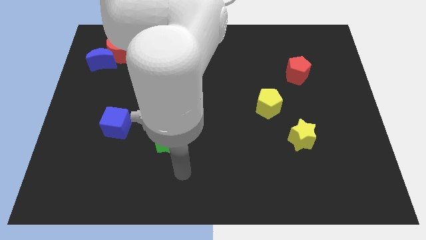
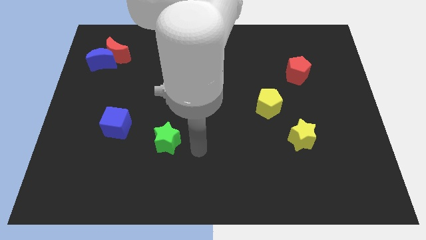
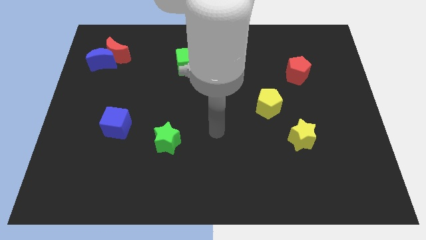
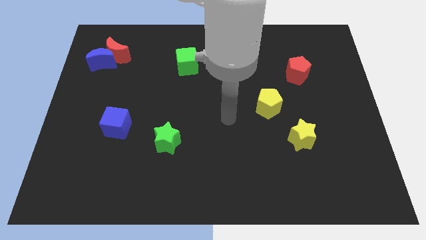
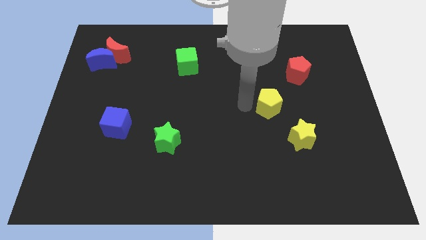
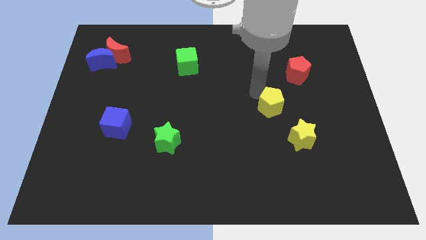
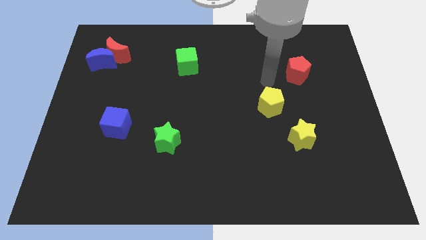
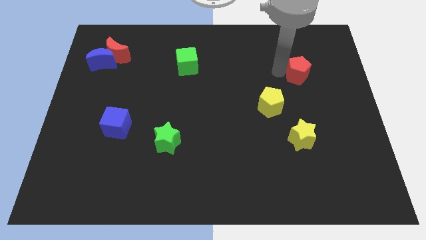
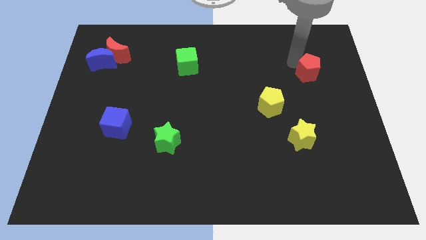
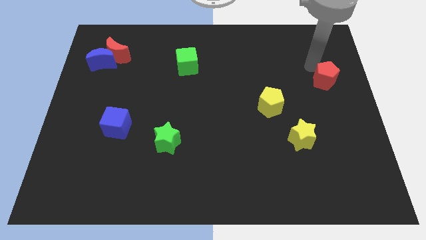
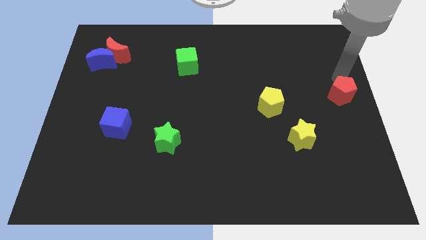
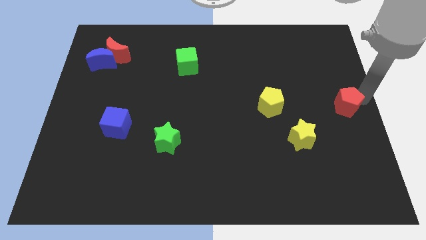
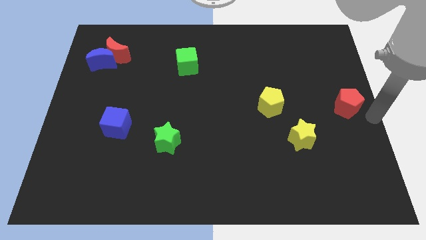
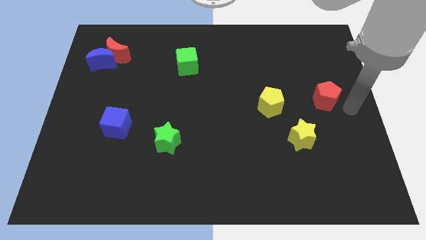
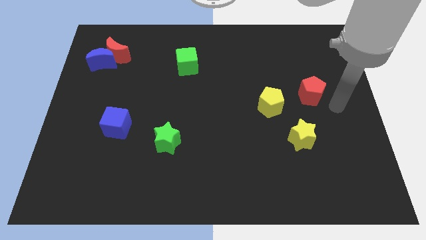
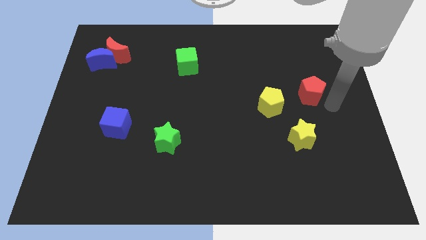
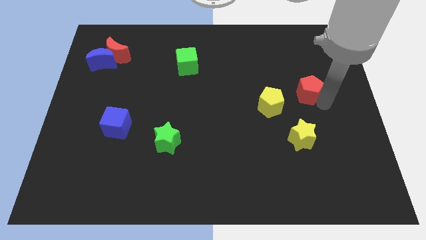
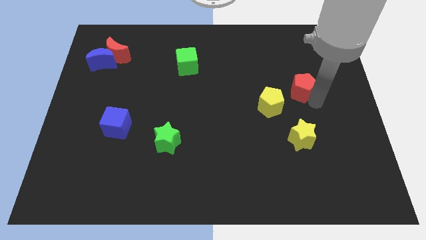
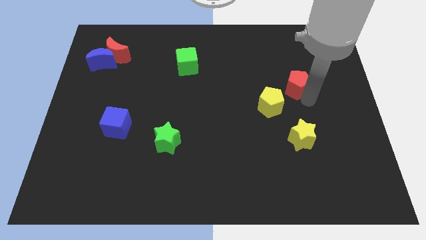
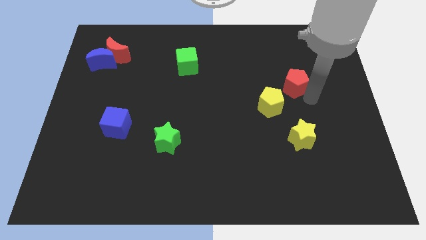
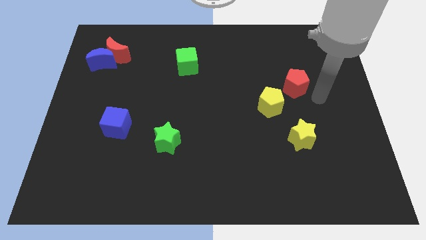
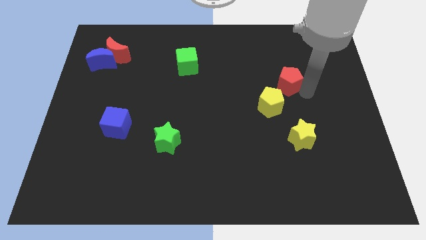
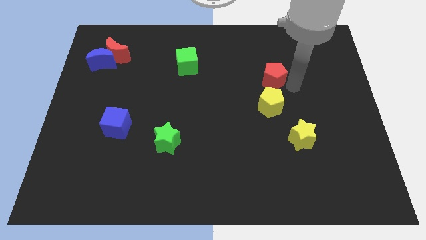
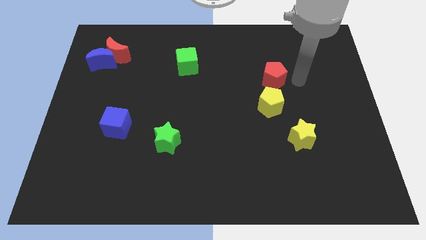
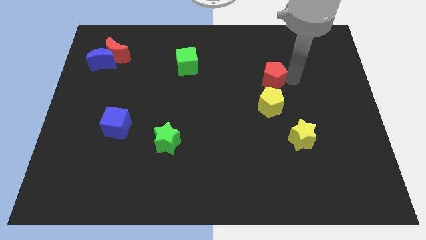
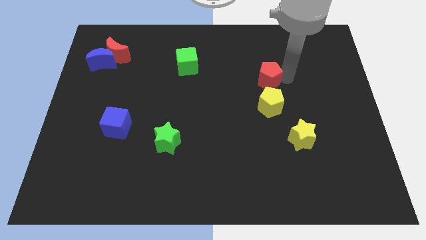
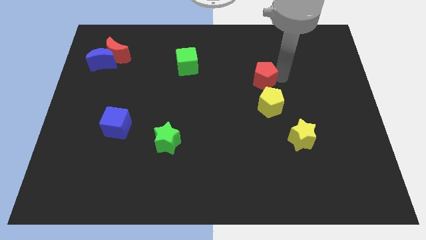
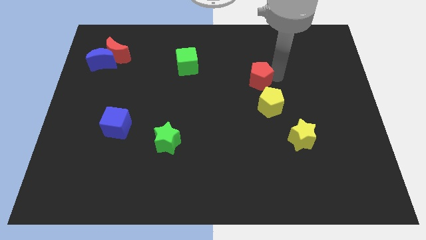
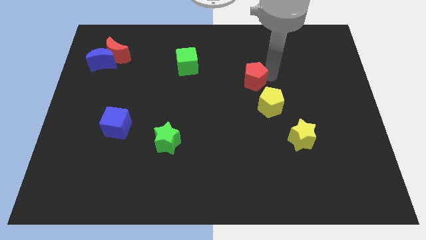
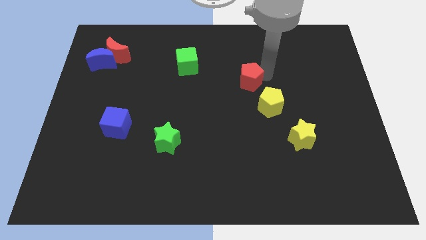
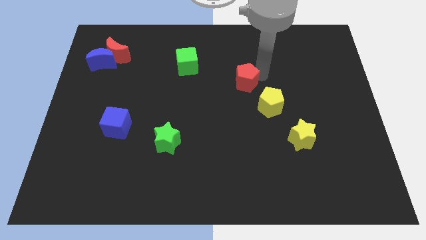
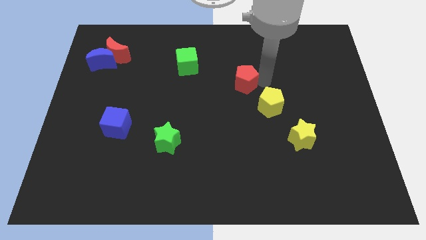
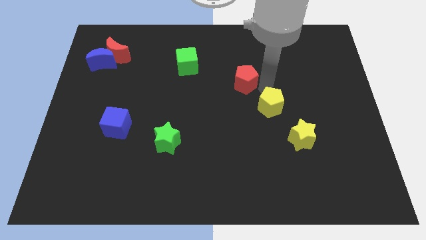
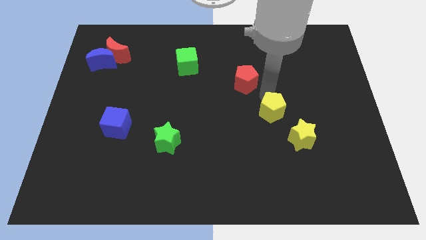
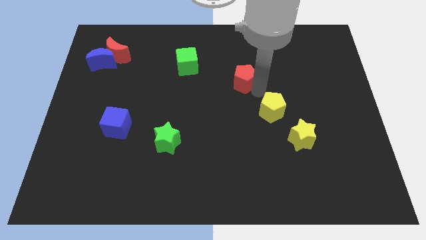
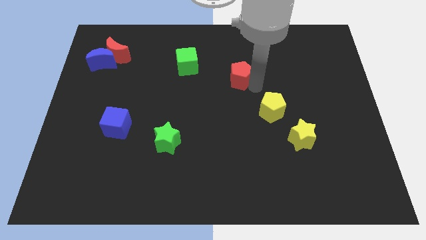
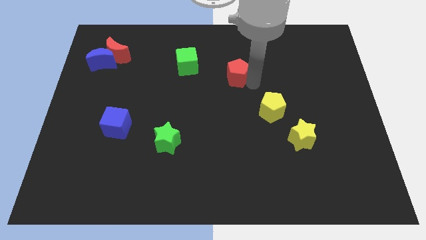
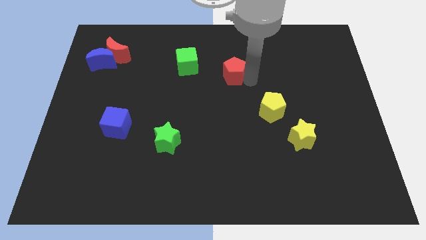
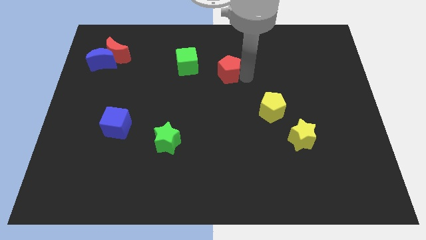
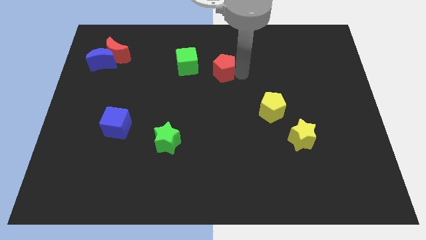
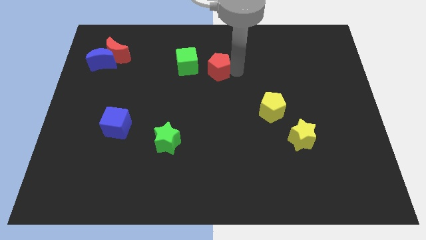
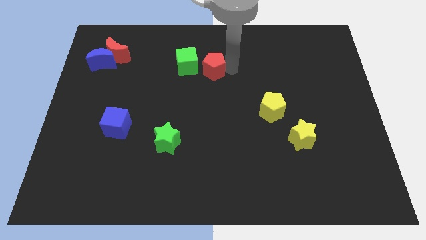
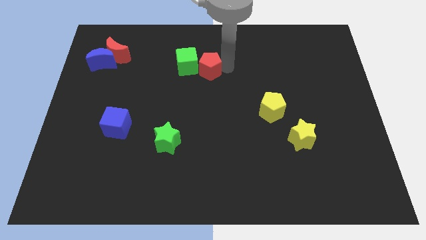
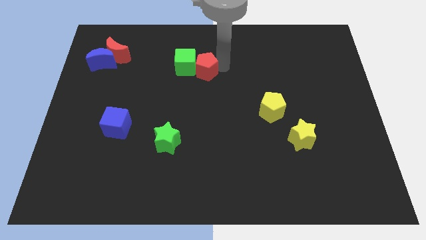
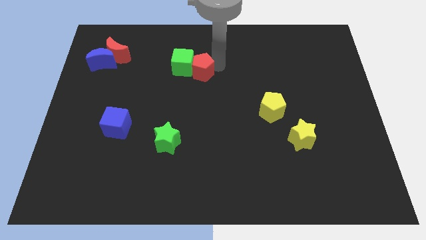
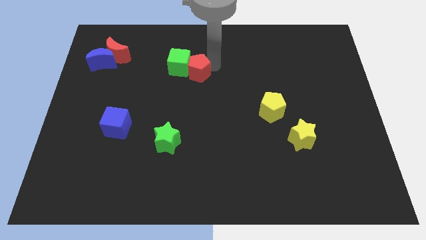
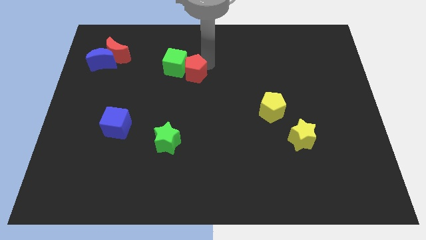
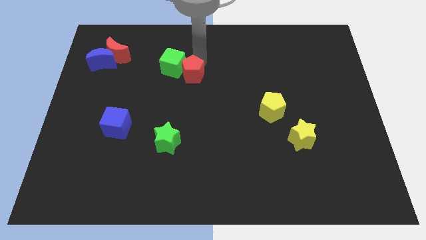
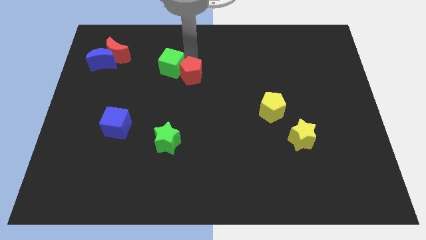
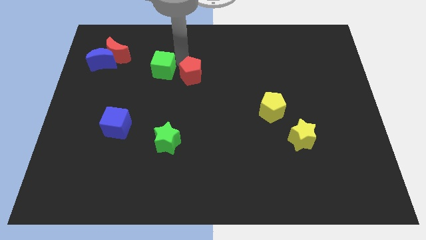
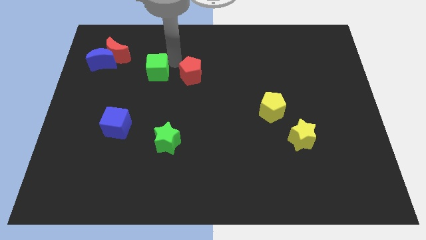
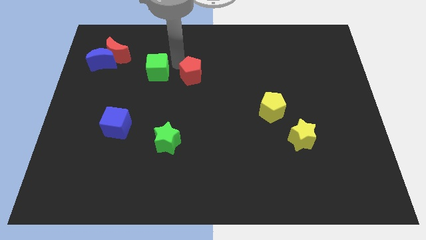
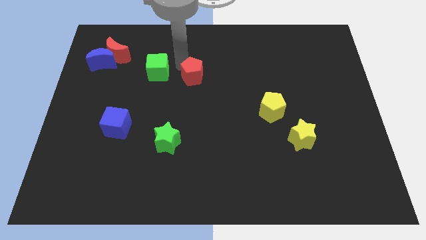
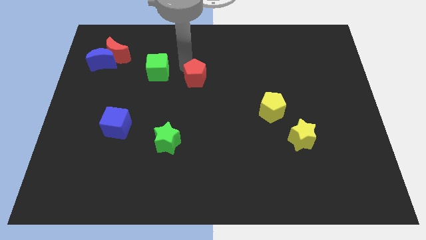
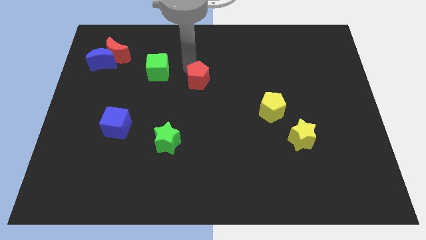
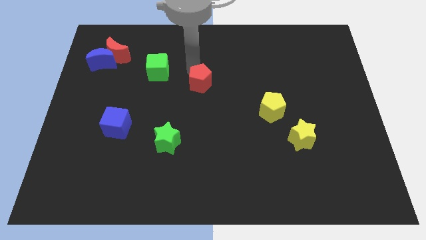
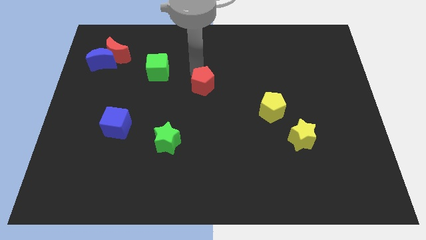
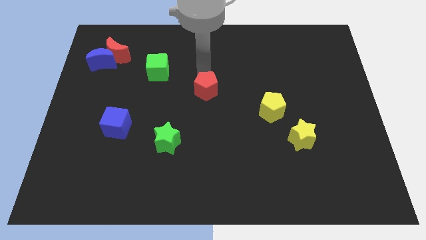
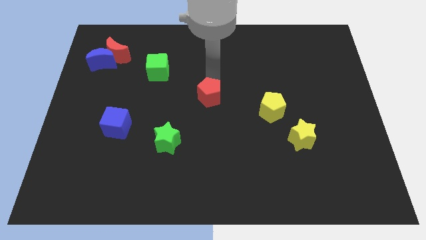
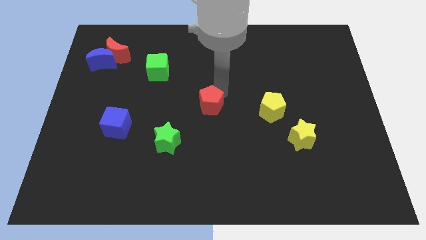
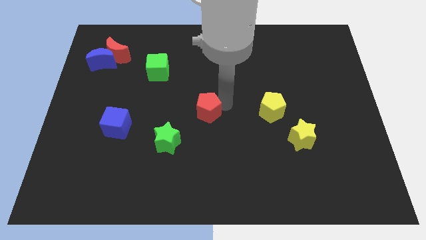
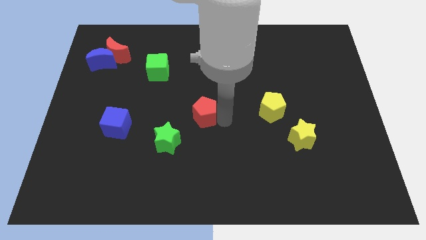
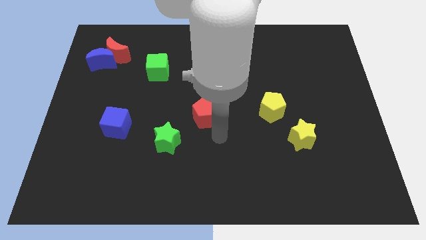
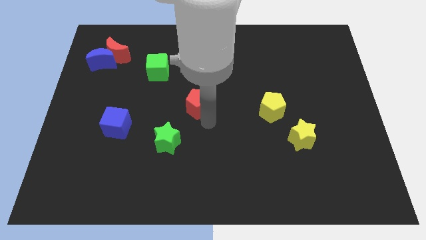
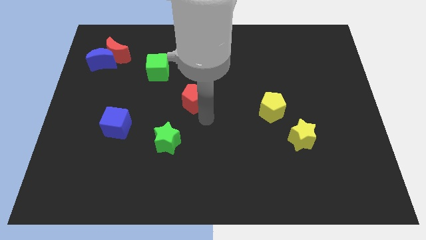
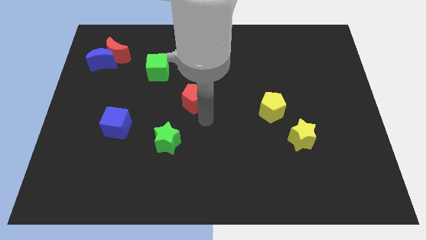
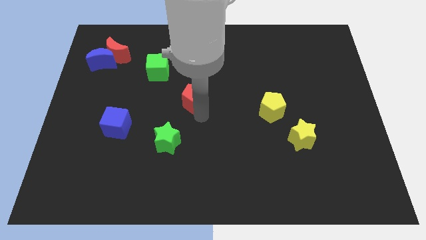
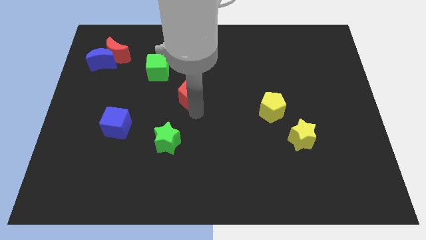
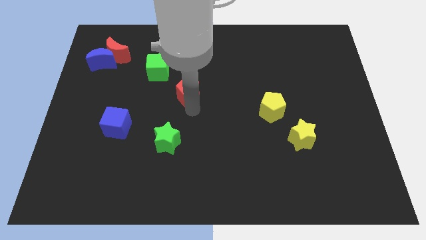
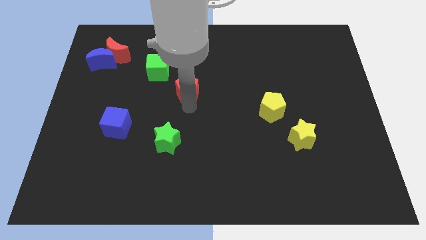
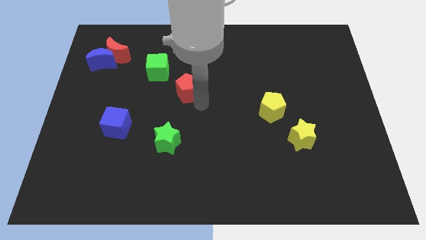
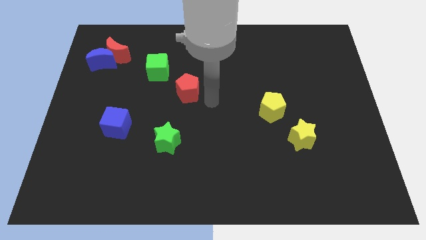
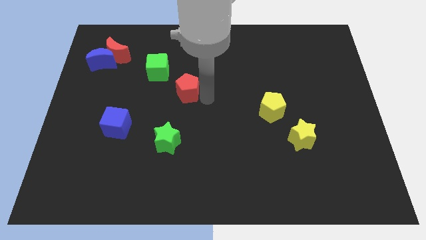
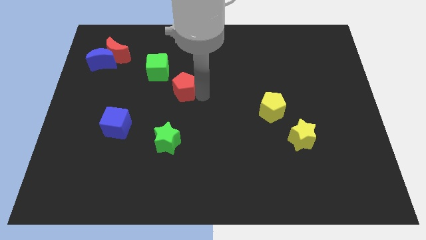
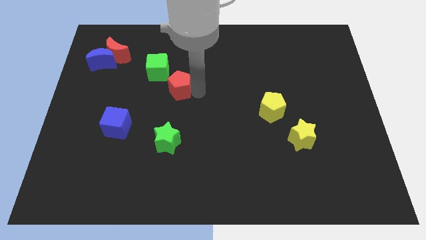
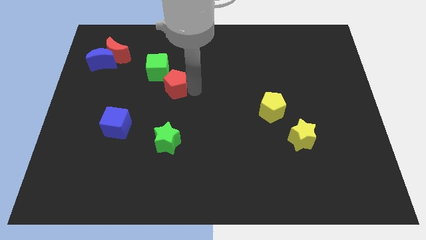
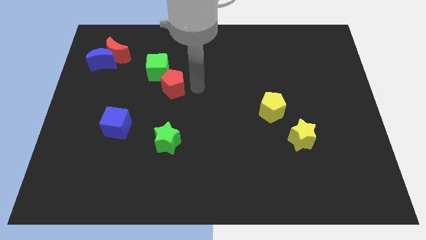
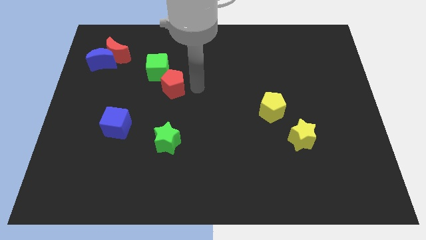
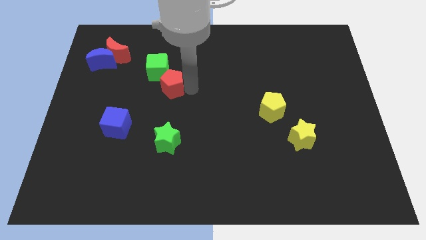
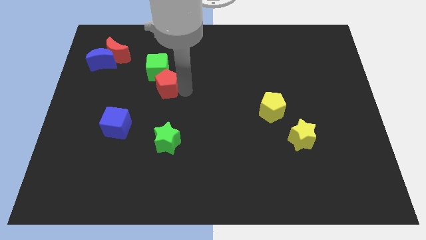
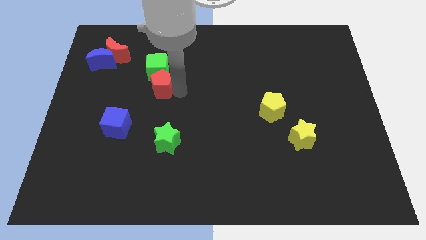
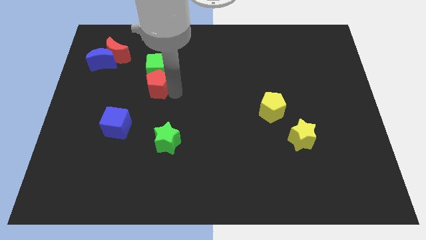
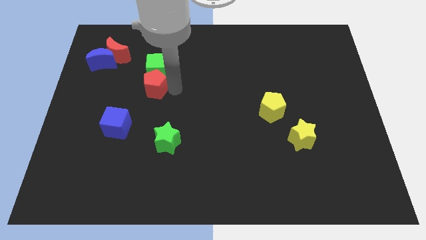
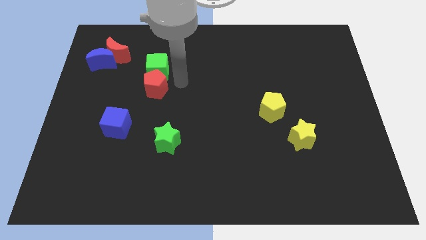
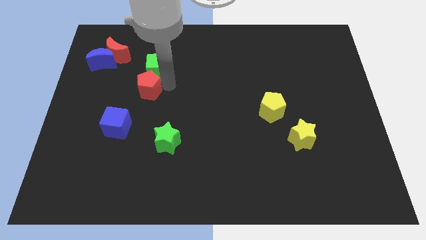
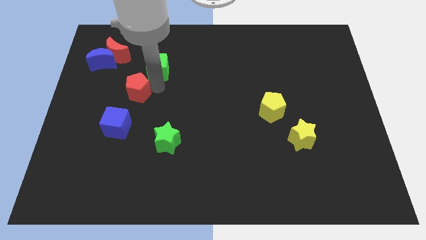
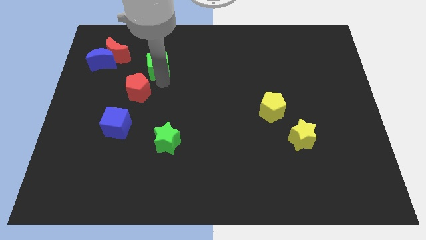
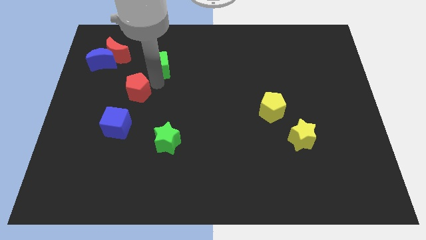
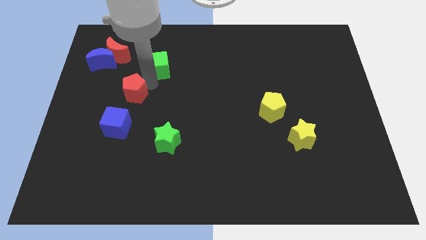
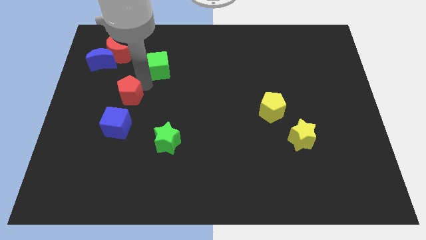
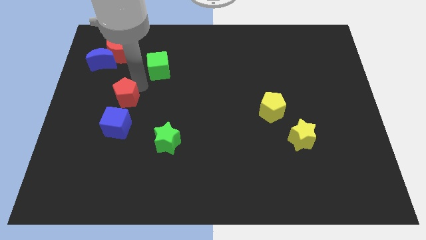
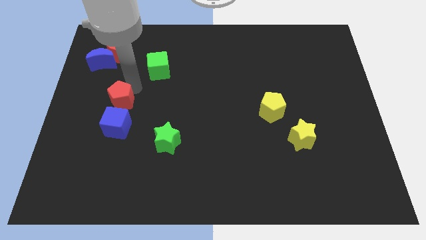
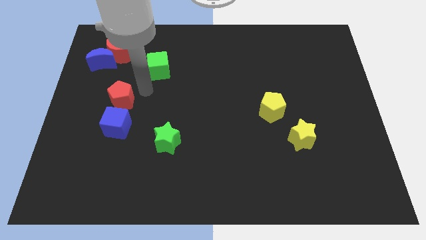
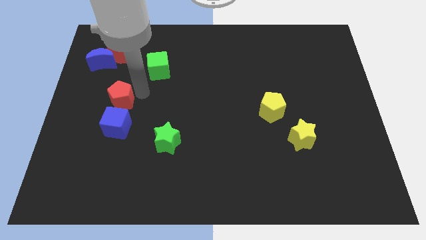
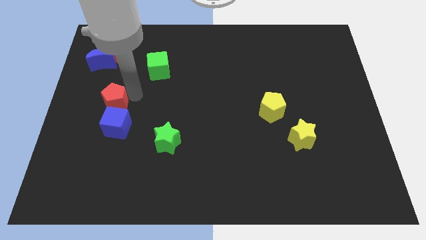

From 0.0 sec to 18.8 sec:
move the red pentagon diagonally up and to the left of the blue cube
